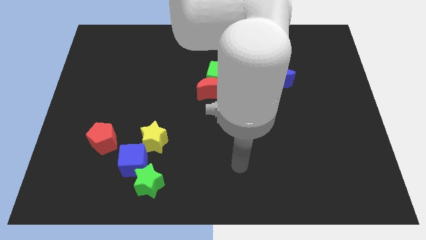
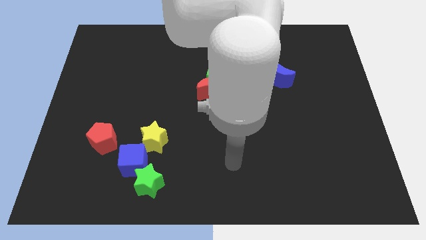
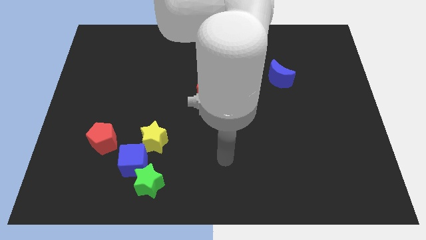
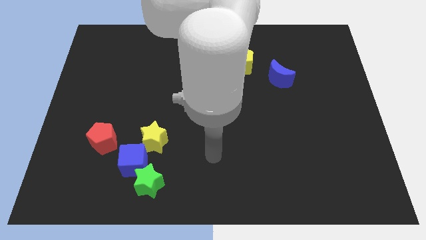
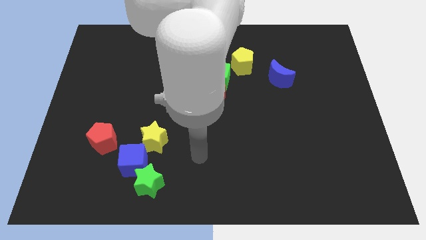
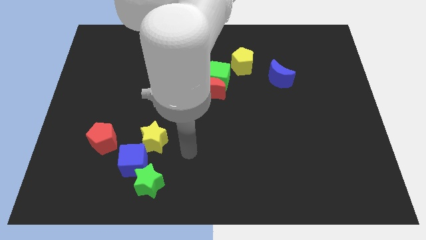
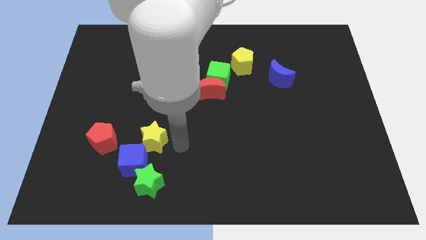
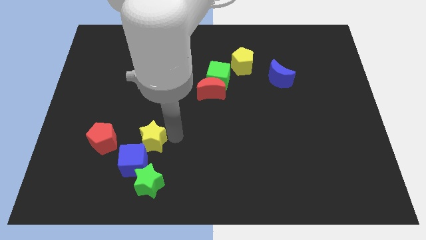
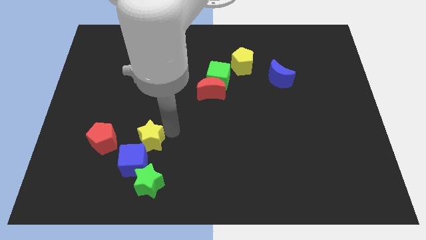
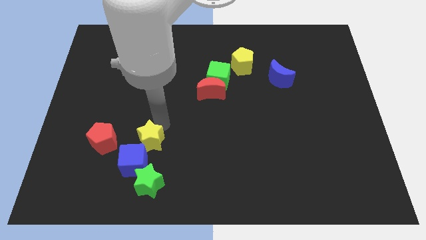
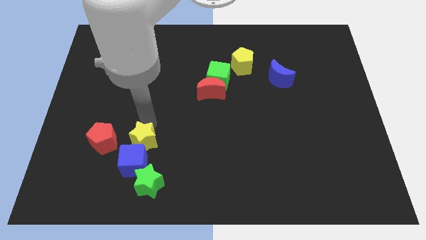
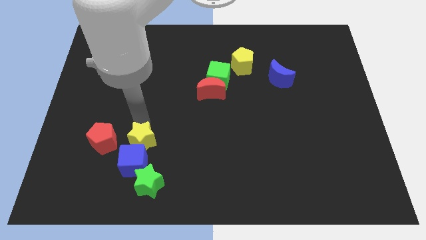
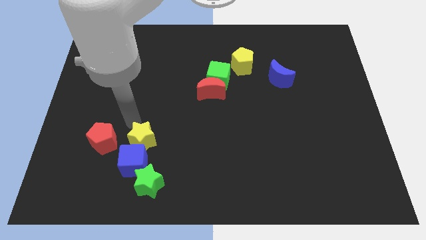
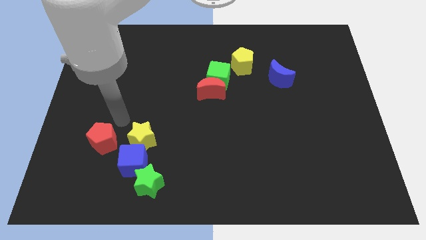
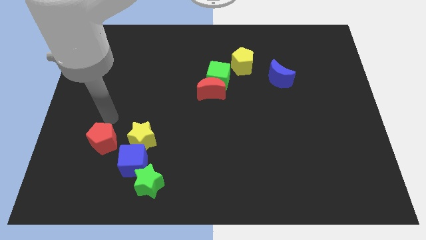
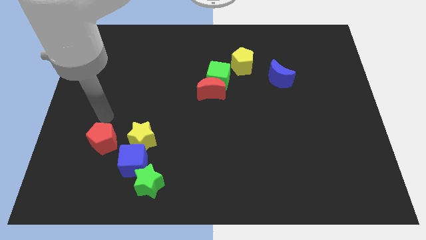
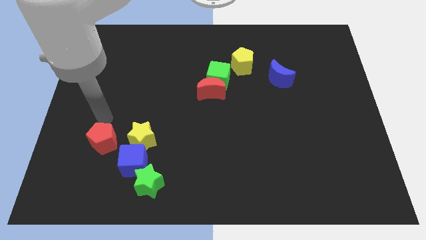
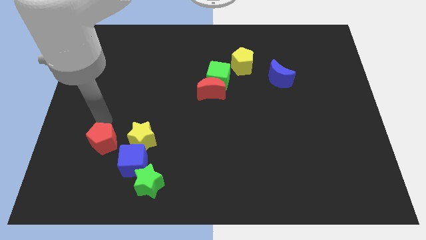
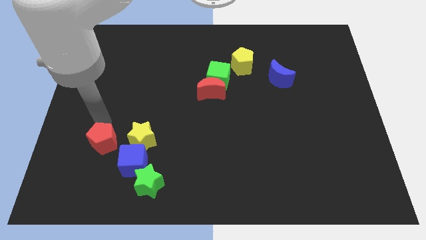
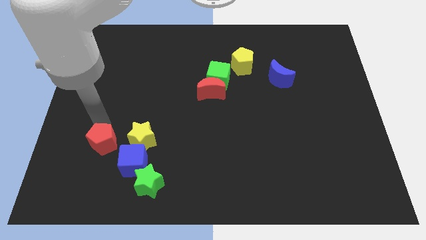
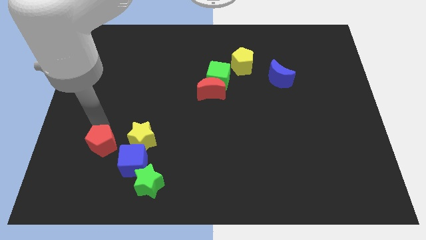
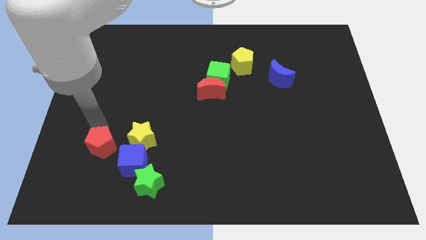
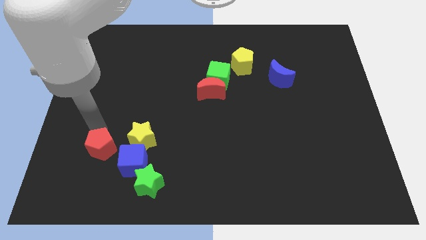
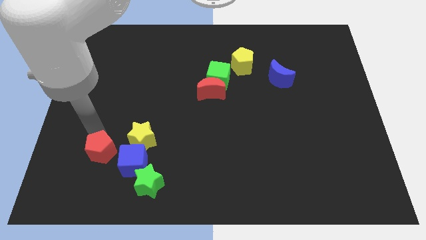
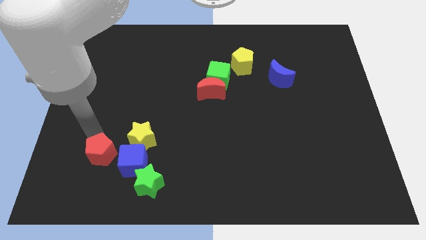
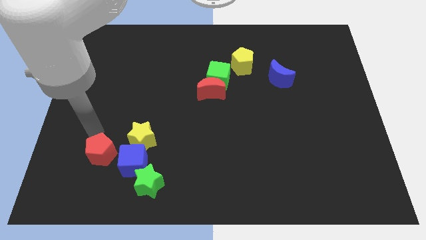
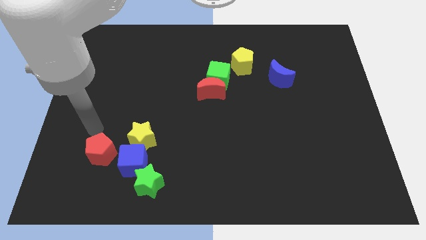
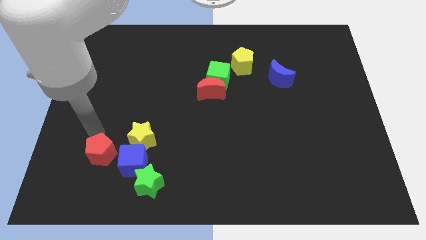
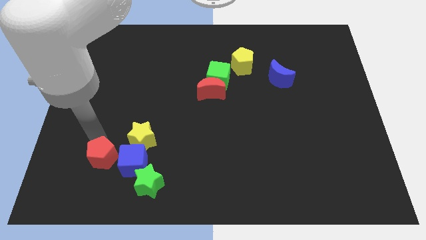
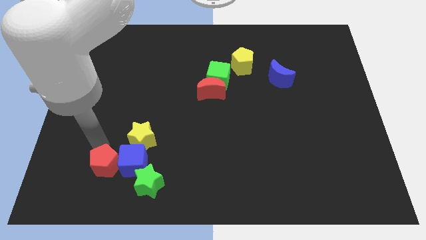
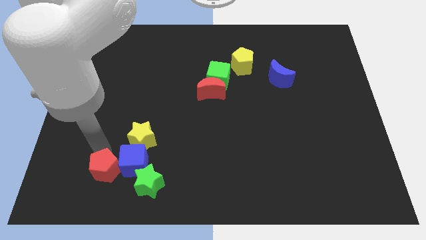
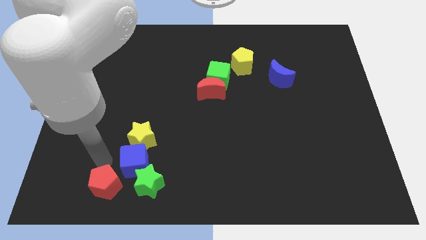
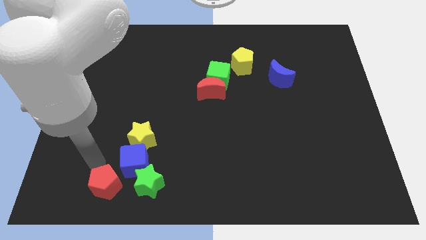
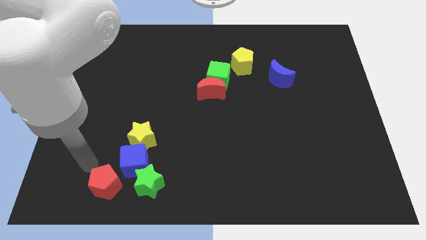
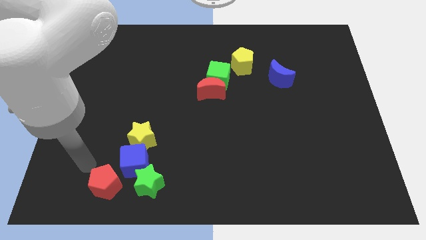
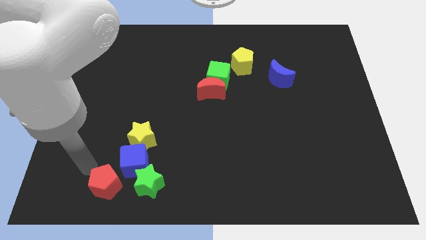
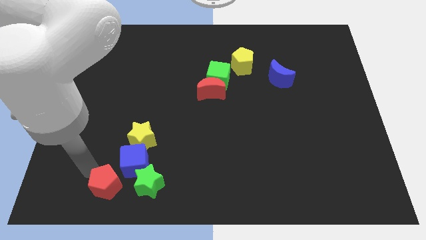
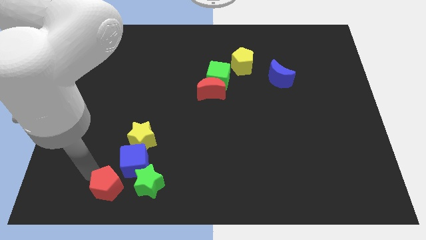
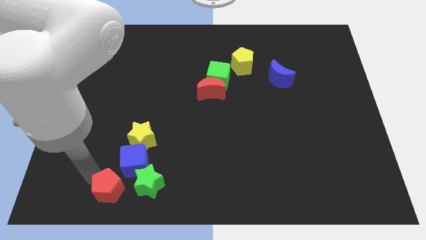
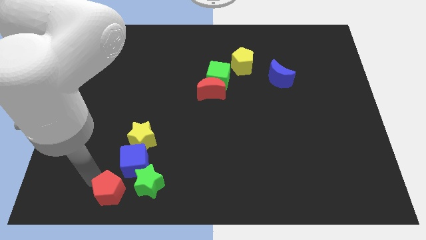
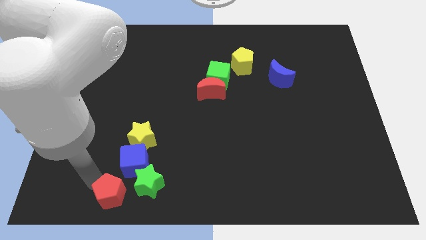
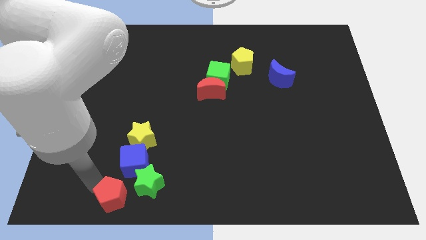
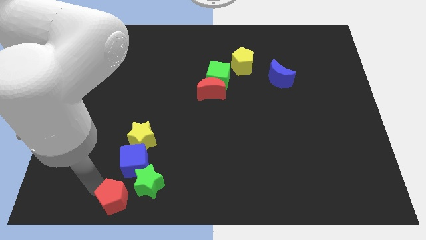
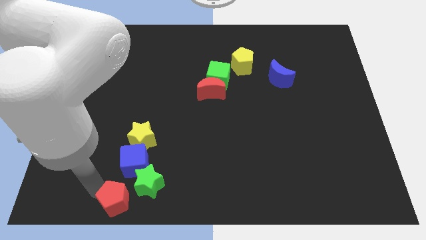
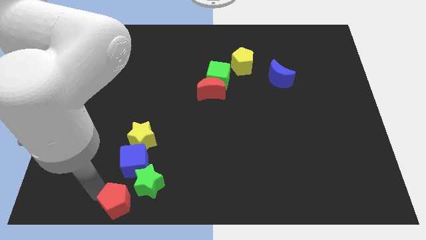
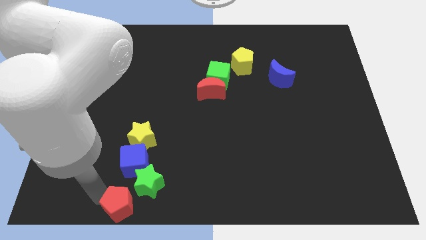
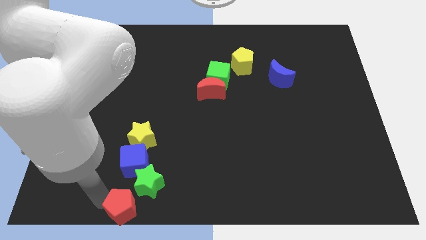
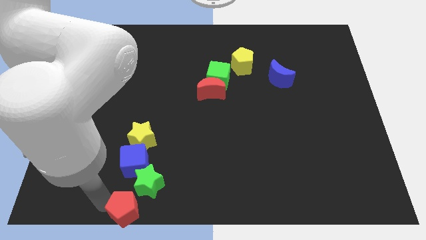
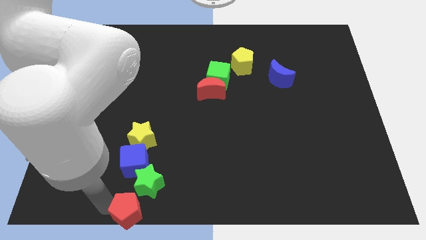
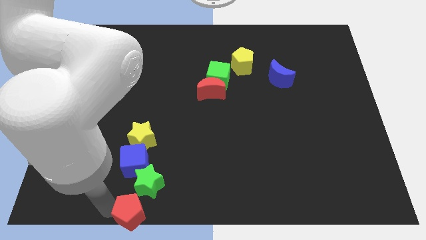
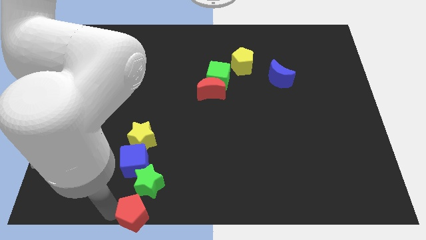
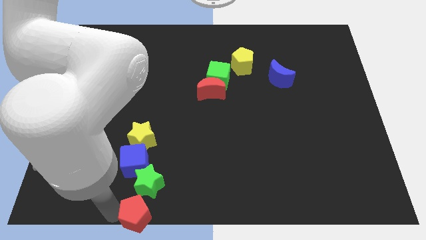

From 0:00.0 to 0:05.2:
move the red pentagon to the bottom

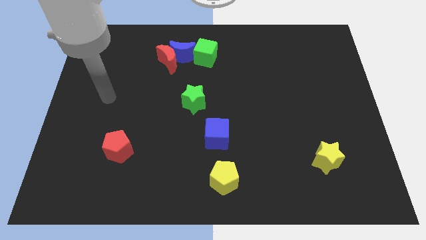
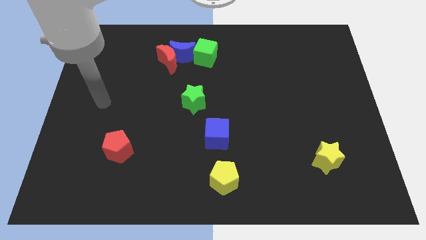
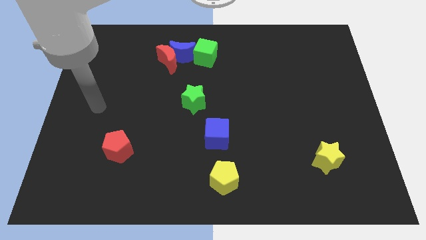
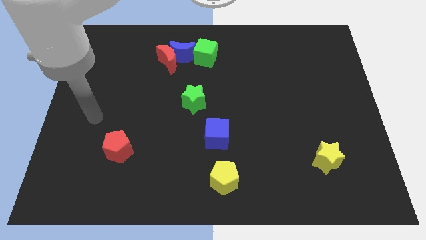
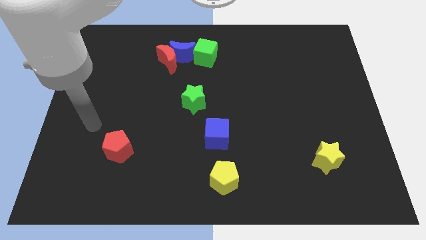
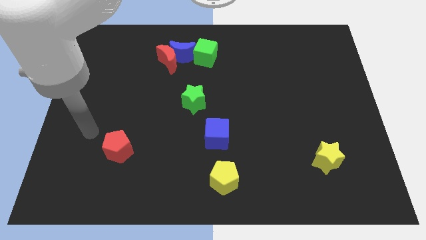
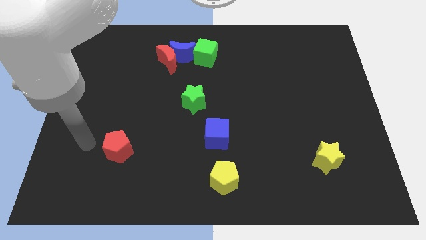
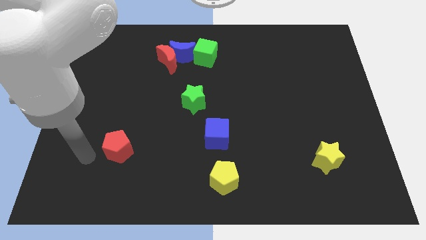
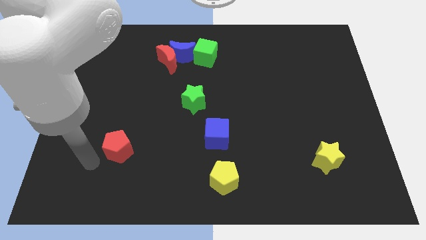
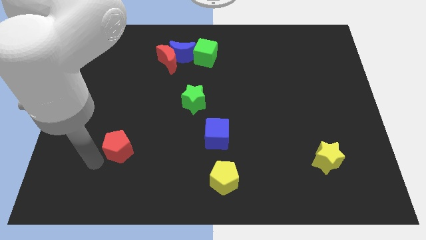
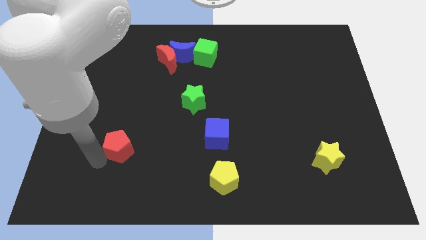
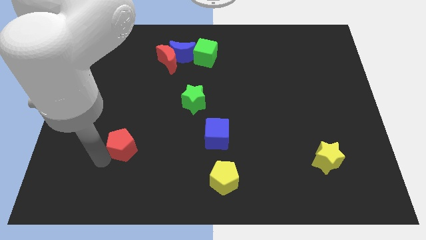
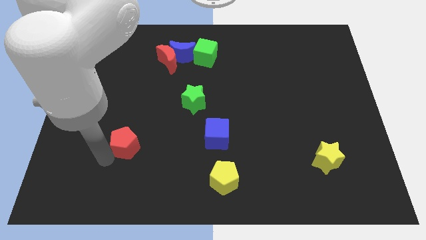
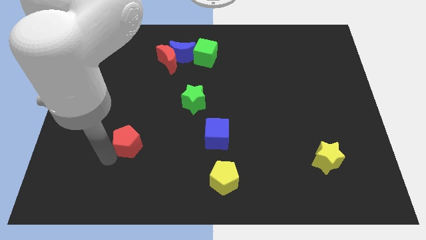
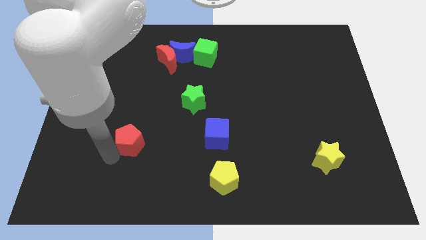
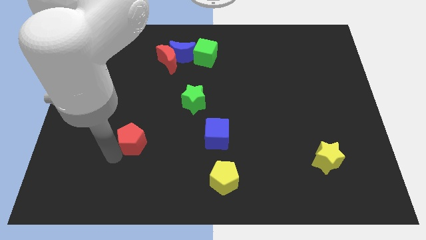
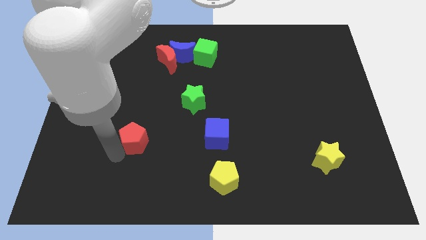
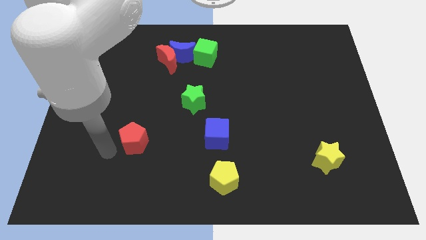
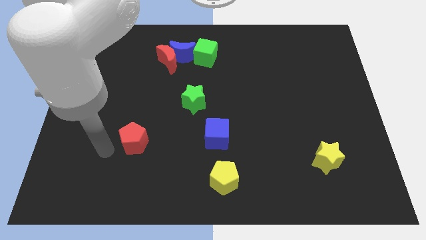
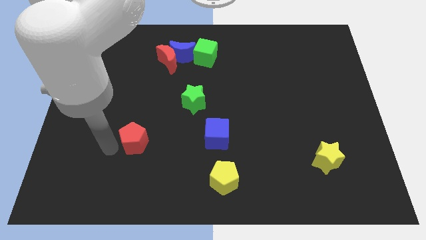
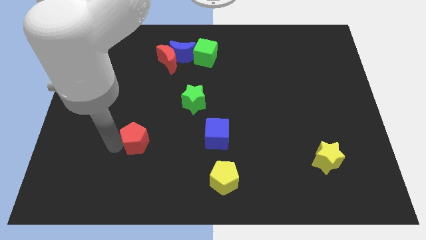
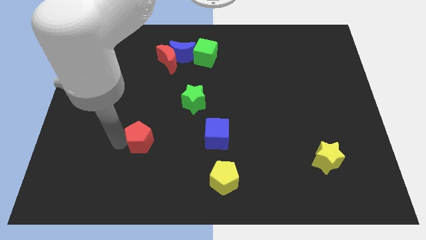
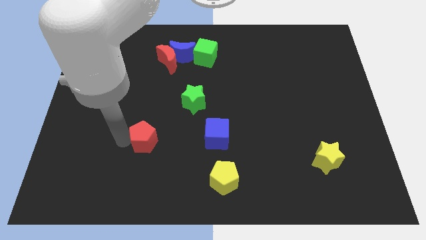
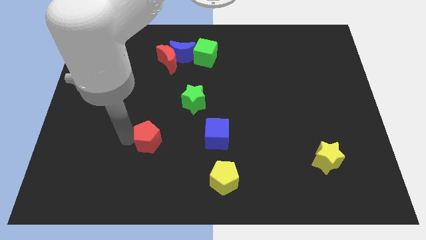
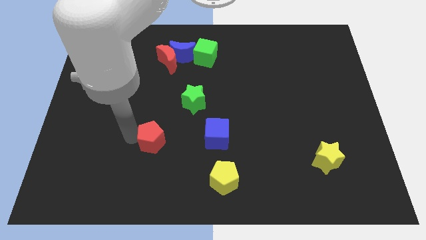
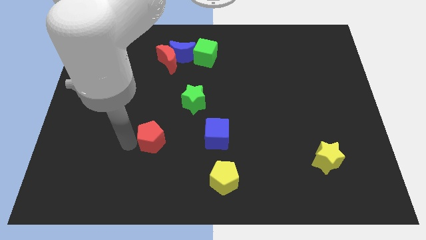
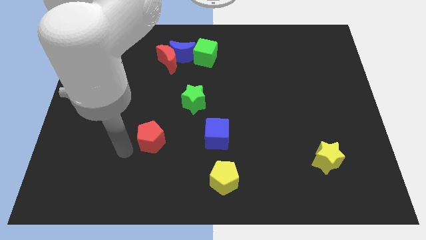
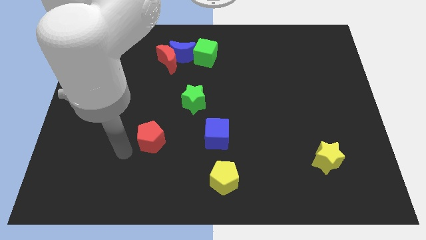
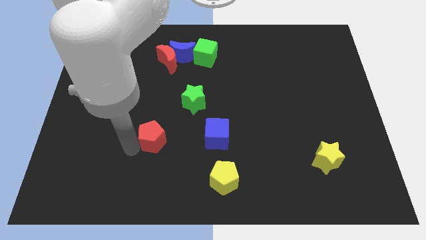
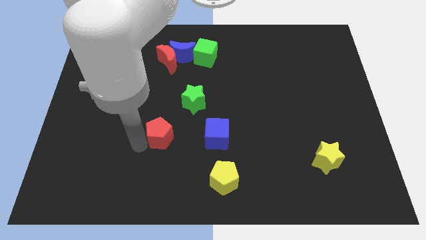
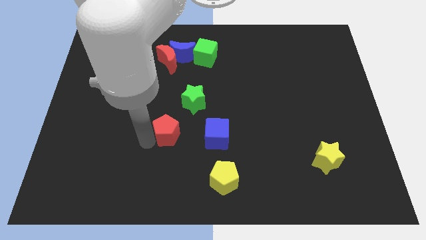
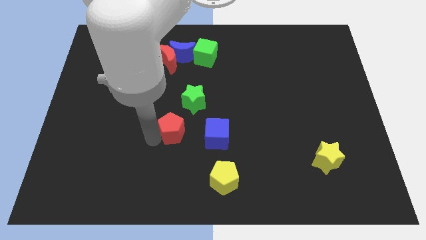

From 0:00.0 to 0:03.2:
push the red pentagon to the center
